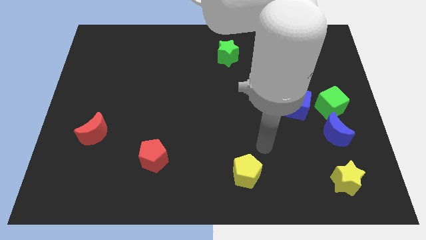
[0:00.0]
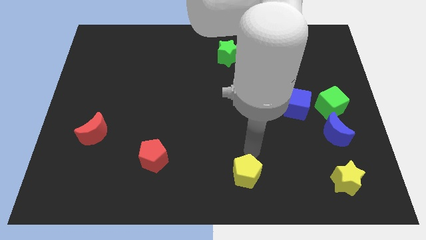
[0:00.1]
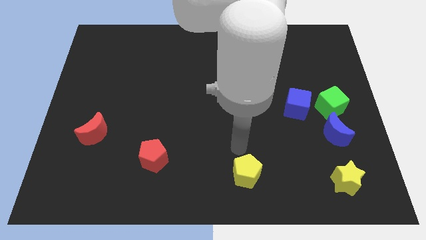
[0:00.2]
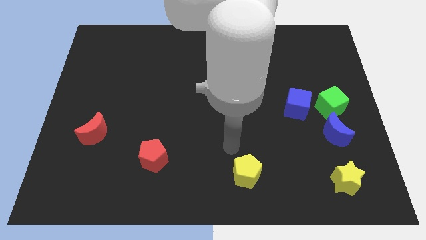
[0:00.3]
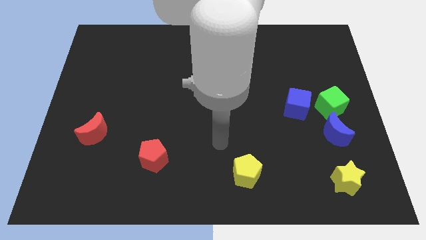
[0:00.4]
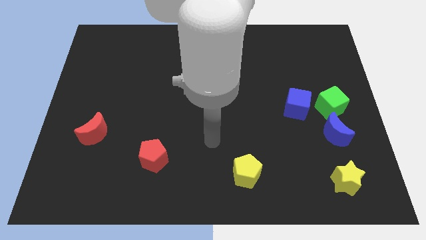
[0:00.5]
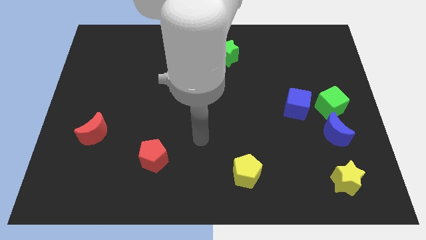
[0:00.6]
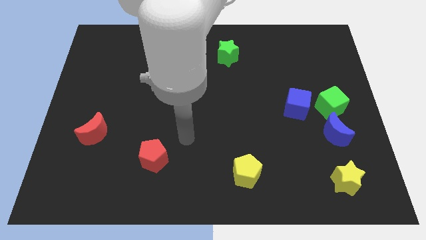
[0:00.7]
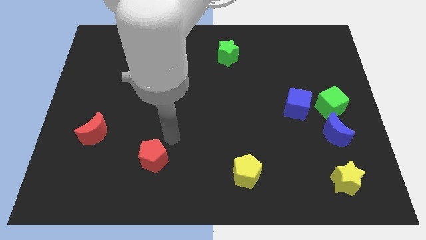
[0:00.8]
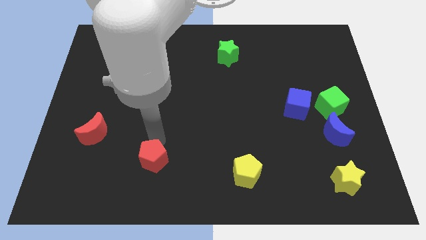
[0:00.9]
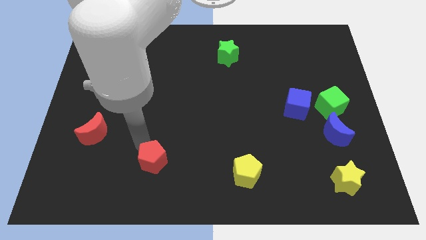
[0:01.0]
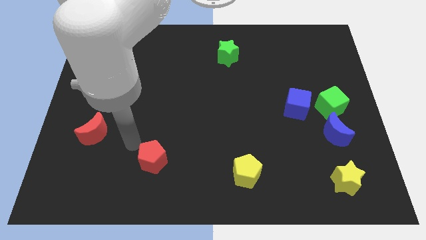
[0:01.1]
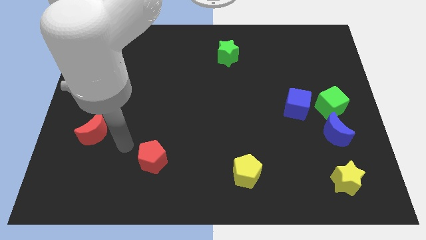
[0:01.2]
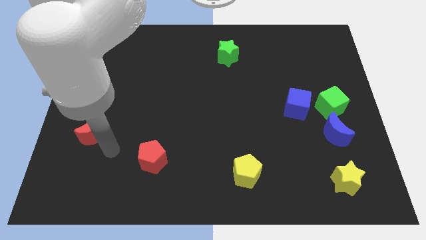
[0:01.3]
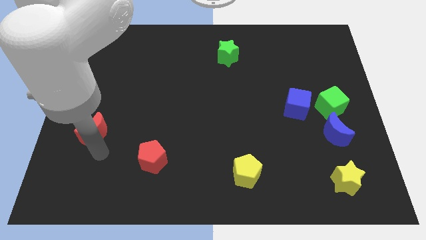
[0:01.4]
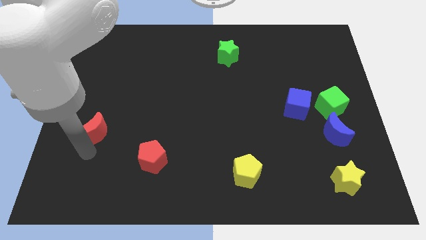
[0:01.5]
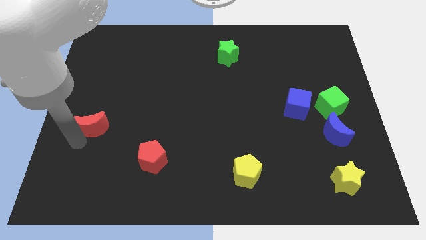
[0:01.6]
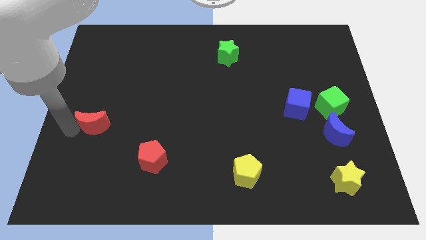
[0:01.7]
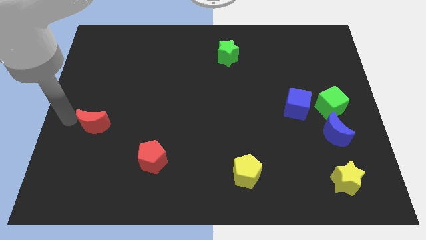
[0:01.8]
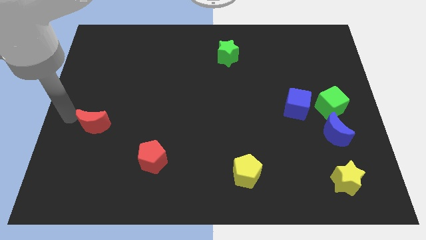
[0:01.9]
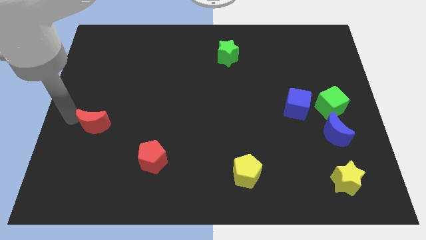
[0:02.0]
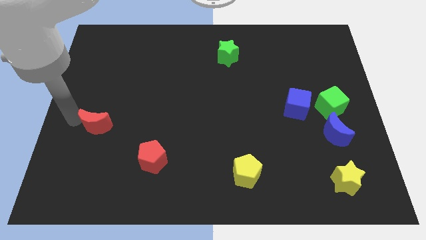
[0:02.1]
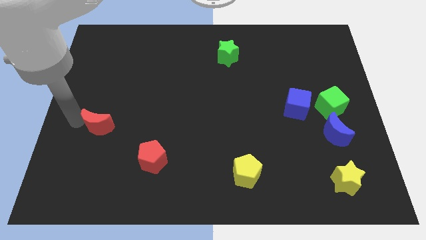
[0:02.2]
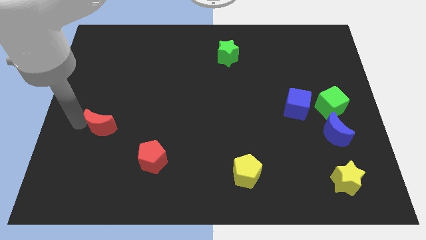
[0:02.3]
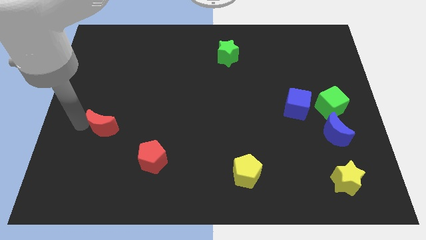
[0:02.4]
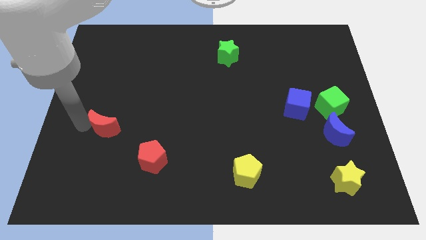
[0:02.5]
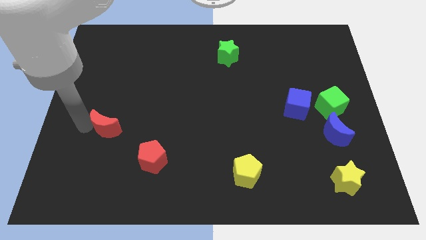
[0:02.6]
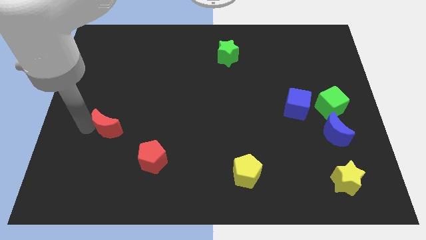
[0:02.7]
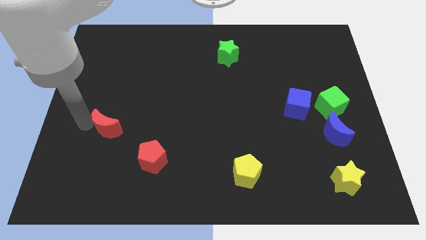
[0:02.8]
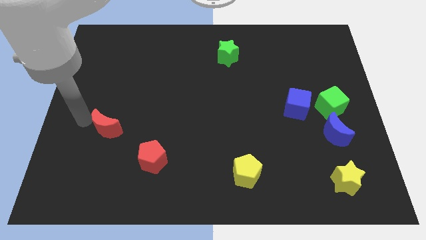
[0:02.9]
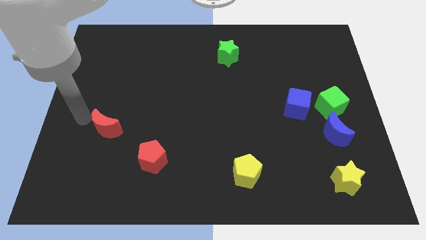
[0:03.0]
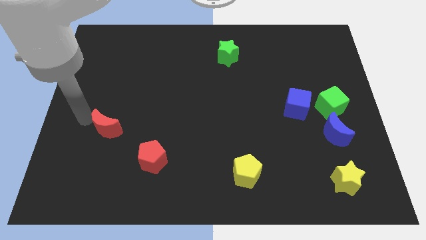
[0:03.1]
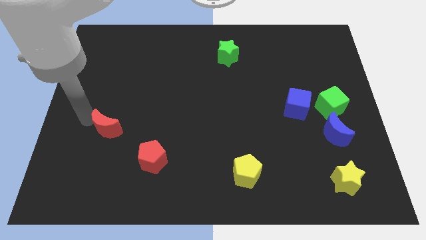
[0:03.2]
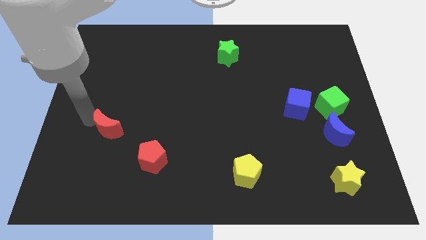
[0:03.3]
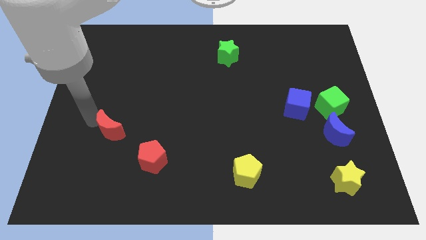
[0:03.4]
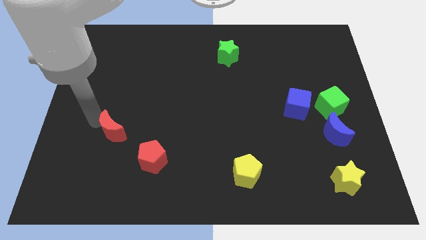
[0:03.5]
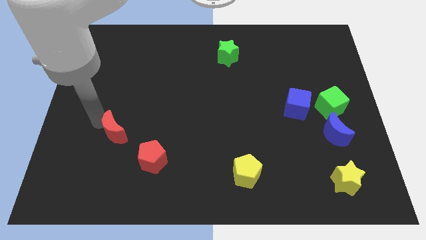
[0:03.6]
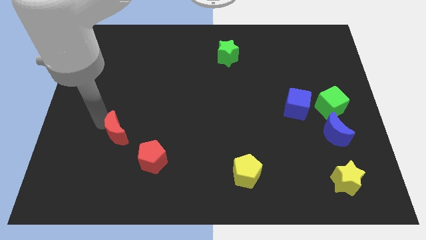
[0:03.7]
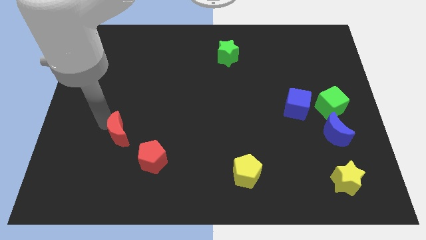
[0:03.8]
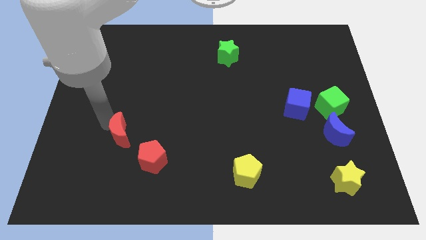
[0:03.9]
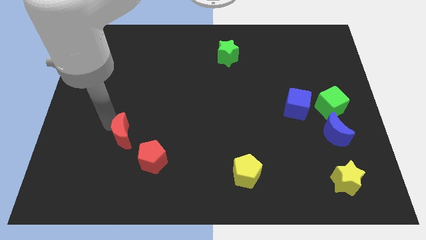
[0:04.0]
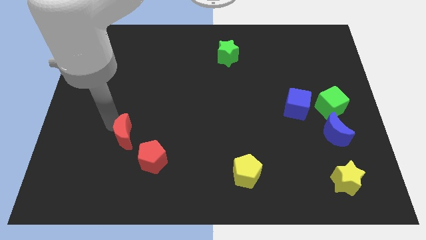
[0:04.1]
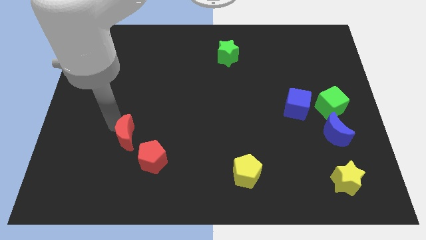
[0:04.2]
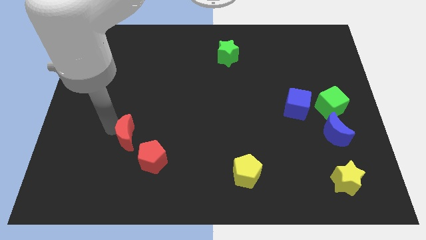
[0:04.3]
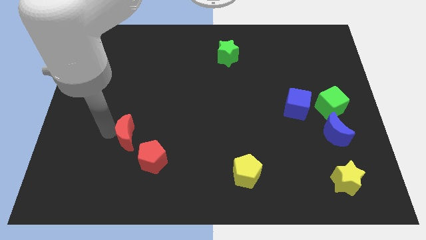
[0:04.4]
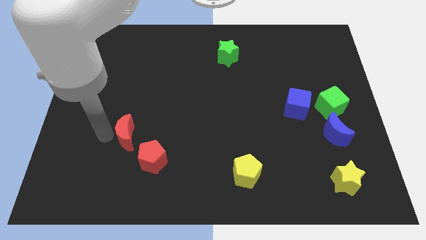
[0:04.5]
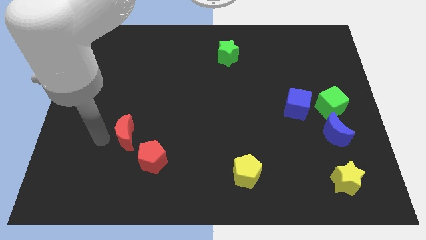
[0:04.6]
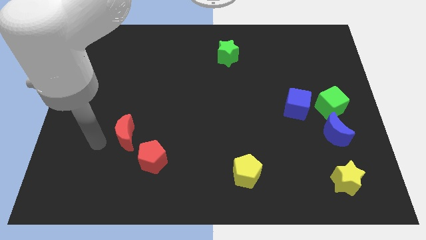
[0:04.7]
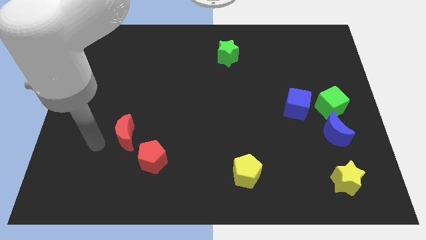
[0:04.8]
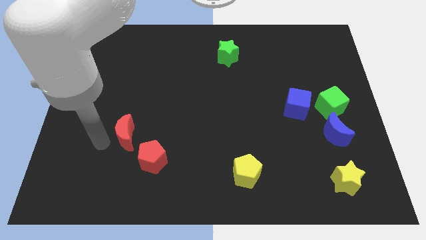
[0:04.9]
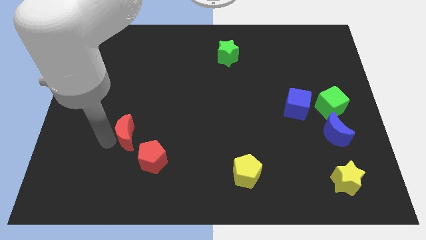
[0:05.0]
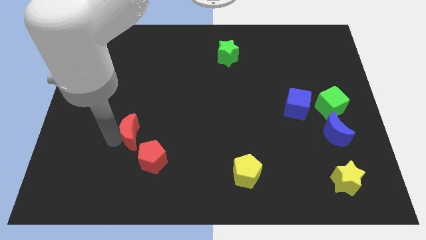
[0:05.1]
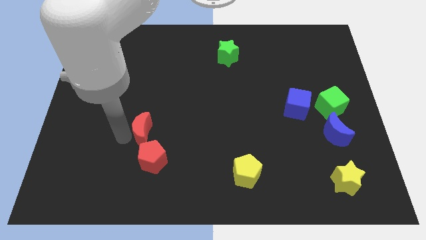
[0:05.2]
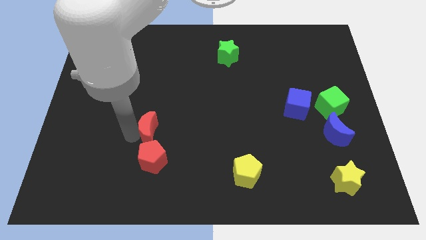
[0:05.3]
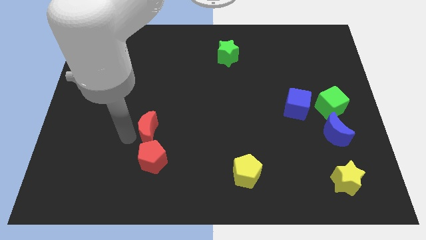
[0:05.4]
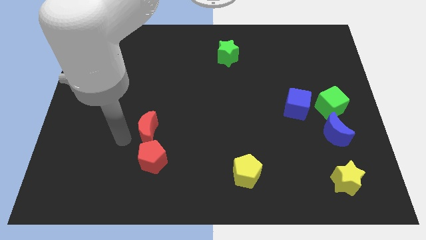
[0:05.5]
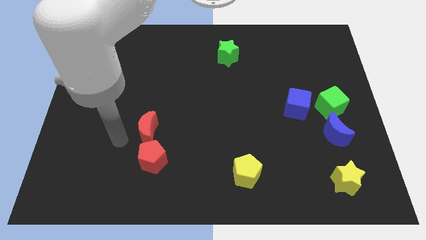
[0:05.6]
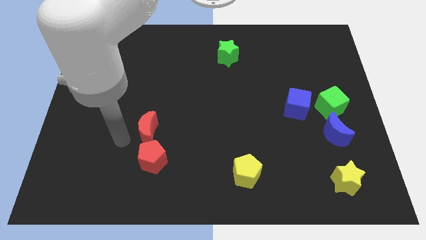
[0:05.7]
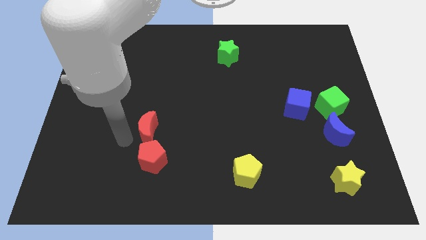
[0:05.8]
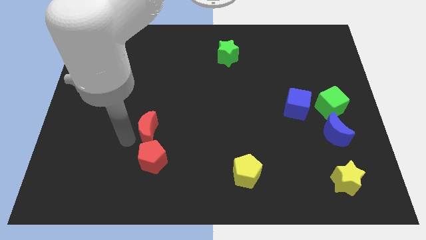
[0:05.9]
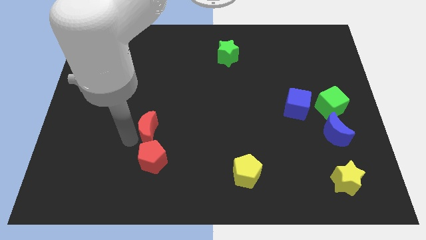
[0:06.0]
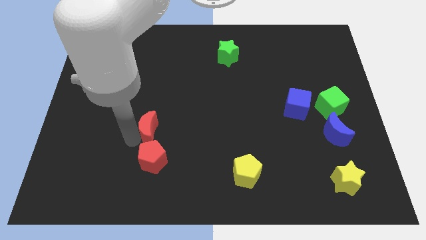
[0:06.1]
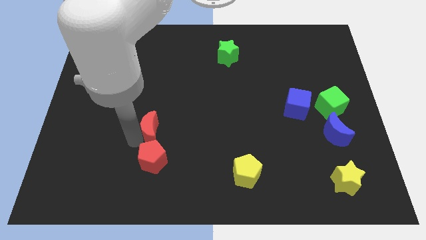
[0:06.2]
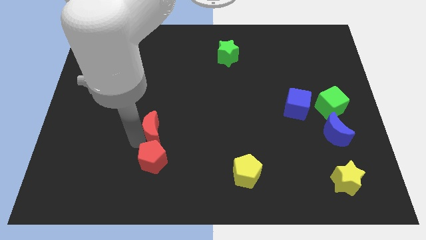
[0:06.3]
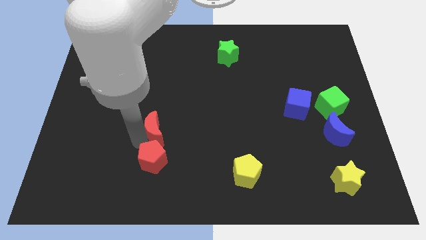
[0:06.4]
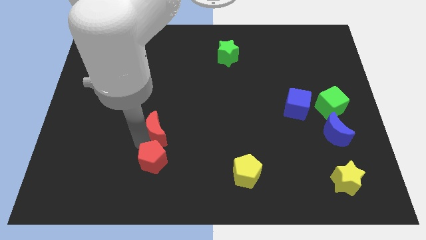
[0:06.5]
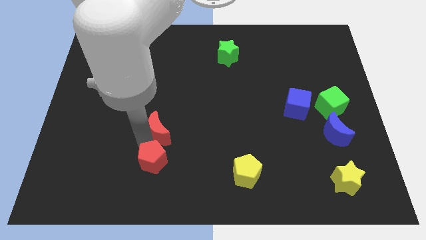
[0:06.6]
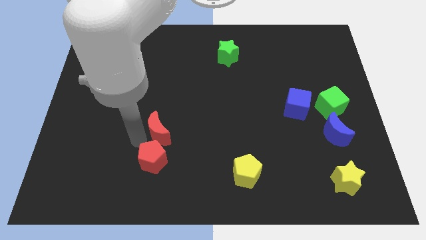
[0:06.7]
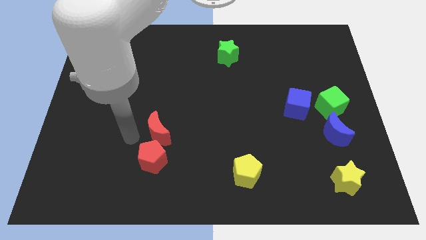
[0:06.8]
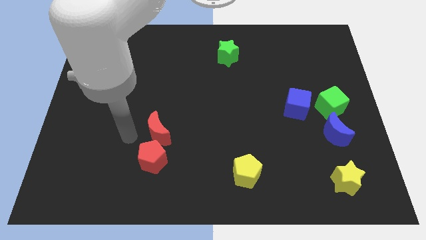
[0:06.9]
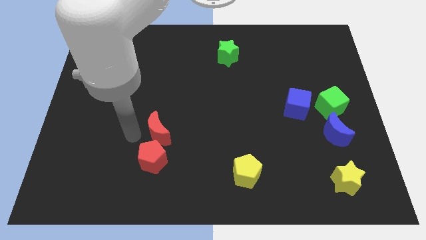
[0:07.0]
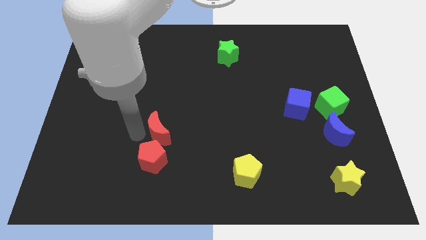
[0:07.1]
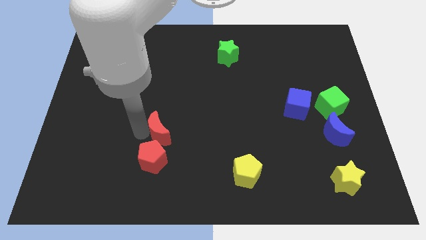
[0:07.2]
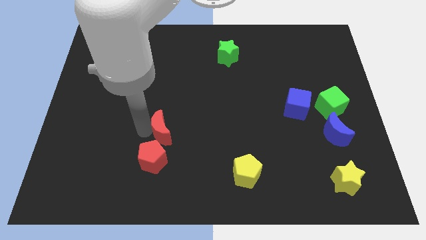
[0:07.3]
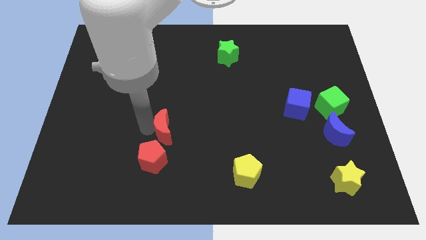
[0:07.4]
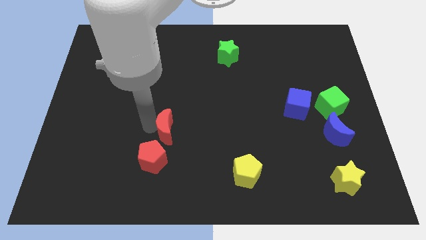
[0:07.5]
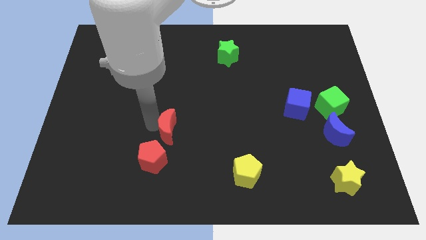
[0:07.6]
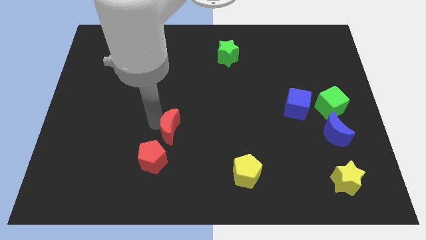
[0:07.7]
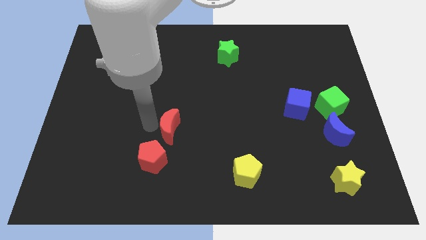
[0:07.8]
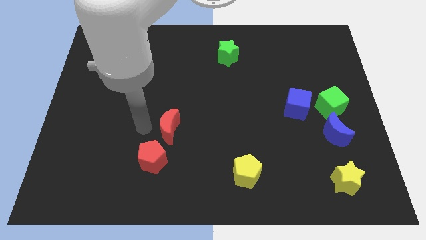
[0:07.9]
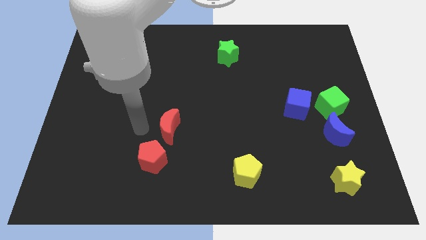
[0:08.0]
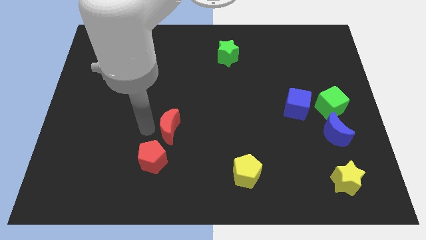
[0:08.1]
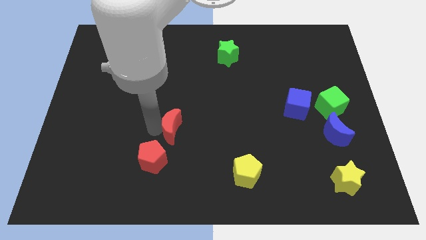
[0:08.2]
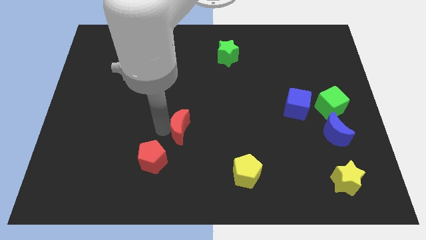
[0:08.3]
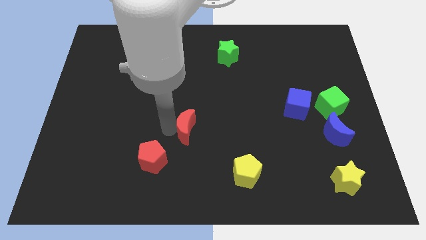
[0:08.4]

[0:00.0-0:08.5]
move the red moon right
